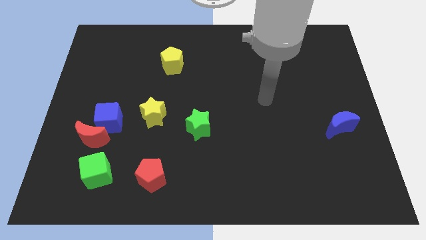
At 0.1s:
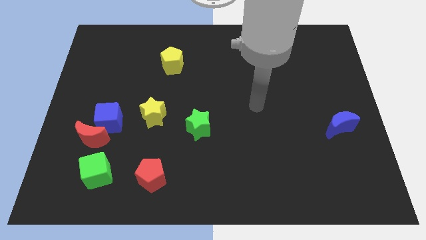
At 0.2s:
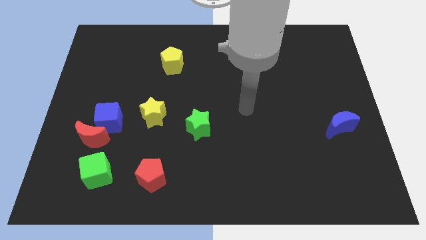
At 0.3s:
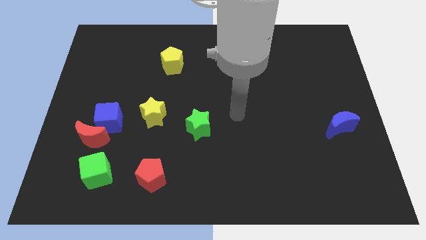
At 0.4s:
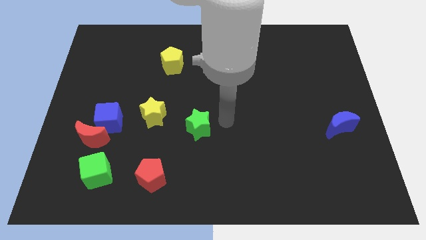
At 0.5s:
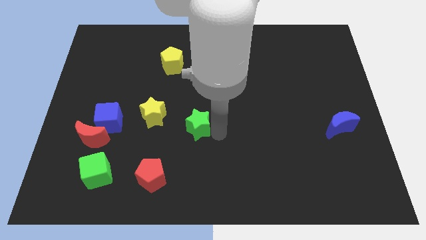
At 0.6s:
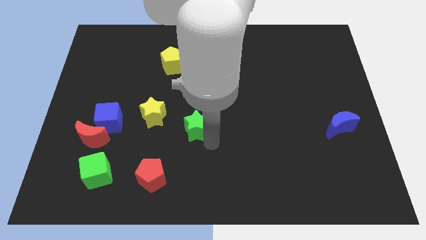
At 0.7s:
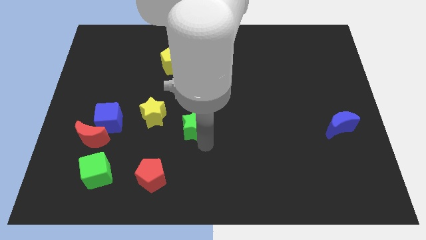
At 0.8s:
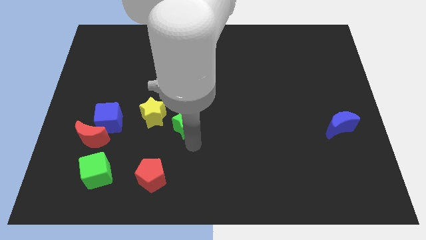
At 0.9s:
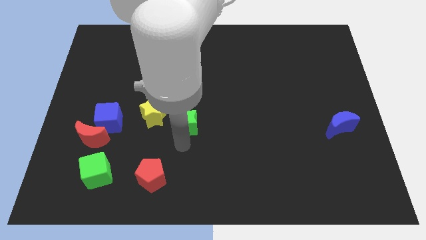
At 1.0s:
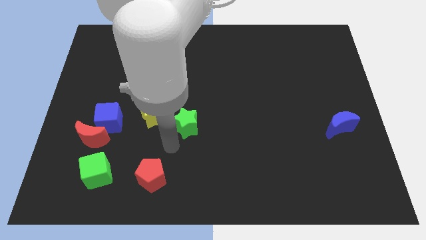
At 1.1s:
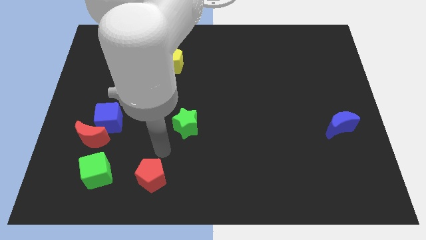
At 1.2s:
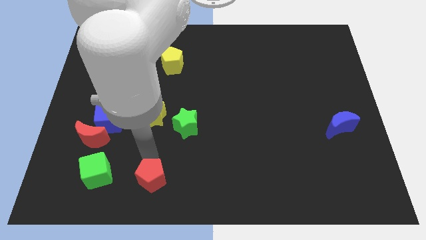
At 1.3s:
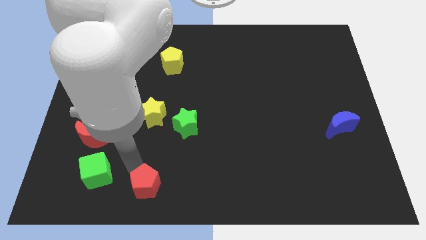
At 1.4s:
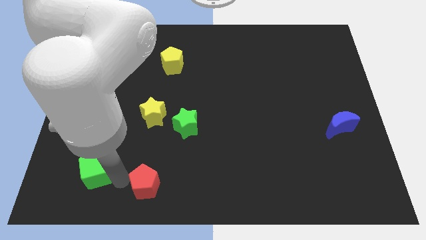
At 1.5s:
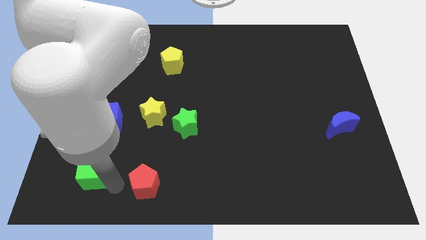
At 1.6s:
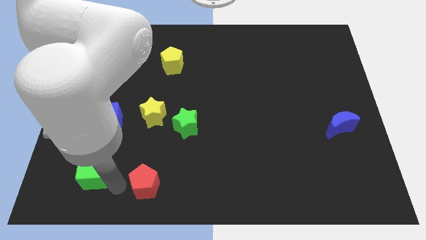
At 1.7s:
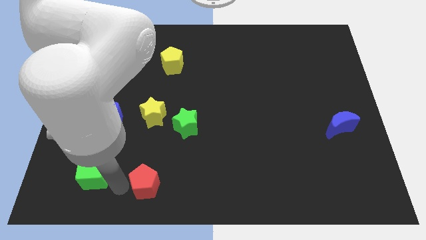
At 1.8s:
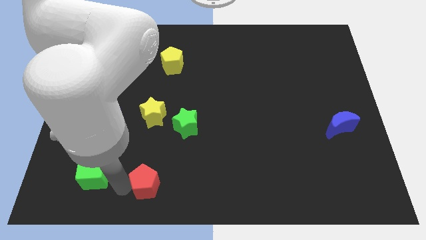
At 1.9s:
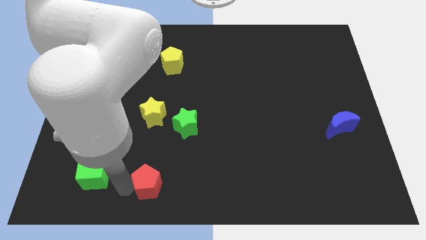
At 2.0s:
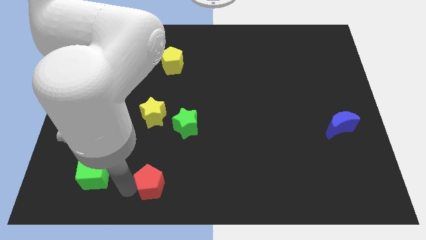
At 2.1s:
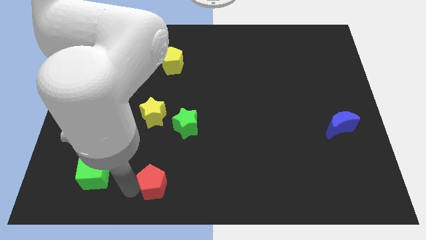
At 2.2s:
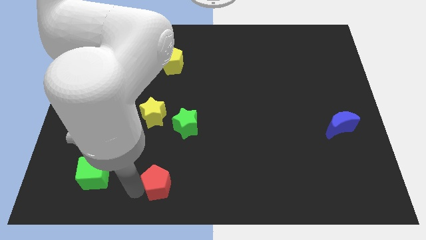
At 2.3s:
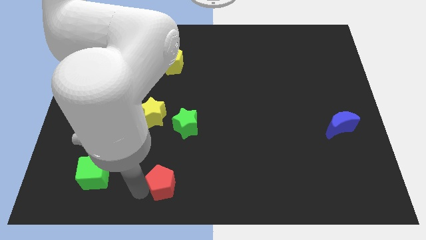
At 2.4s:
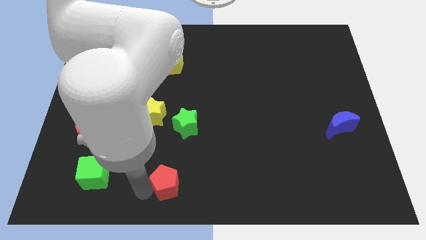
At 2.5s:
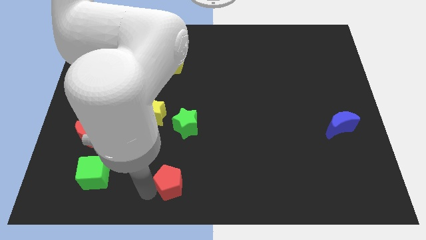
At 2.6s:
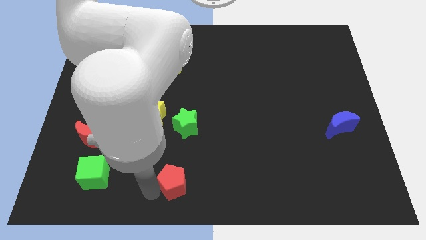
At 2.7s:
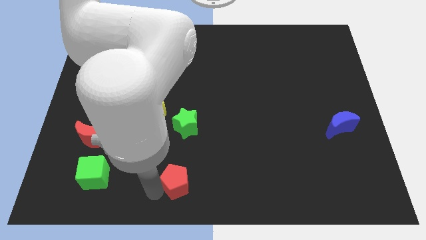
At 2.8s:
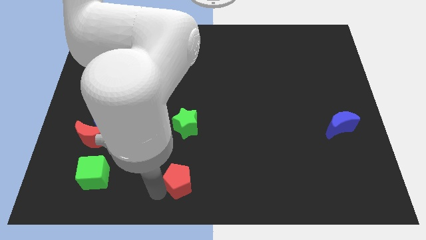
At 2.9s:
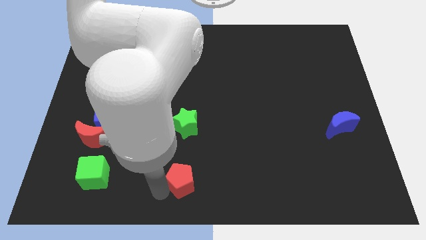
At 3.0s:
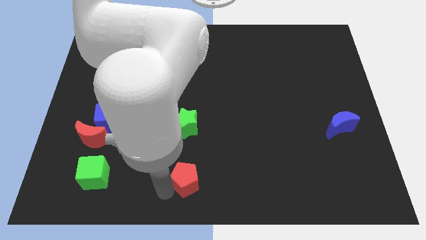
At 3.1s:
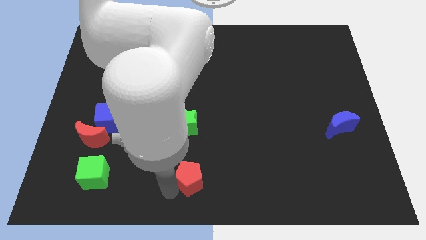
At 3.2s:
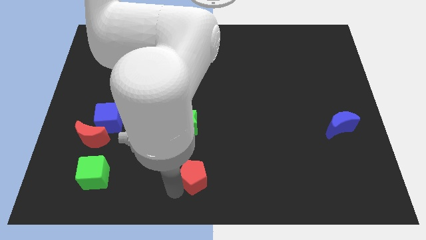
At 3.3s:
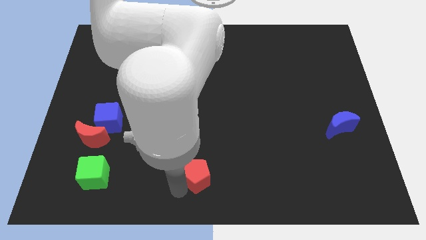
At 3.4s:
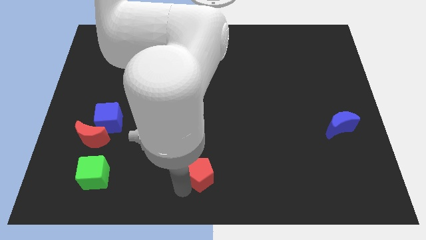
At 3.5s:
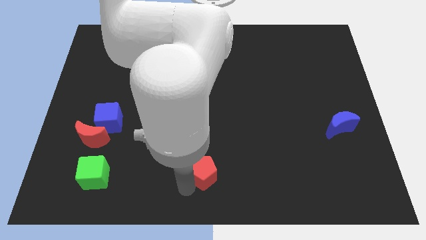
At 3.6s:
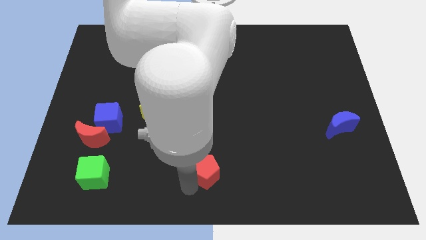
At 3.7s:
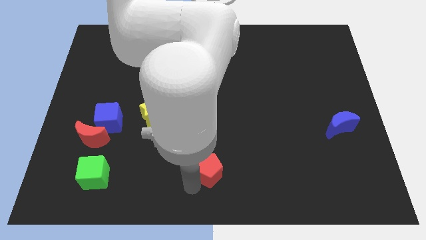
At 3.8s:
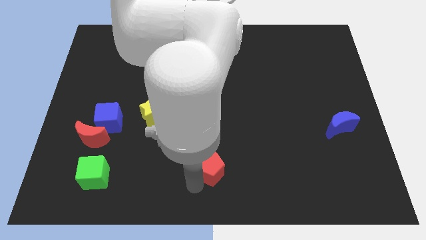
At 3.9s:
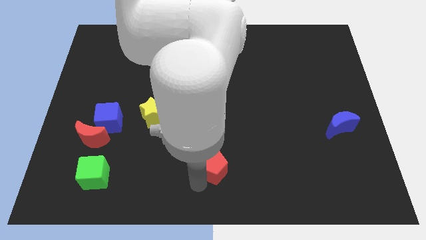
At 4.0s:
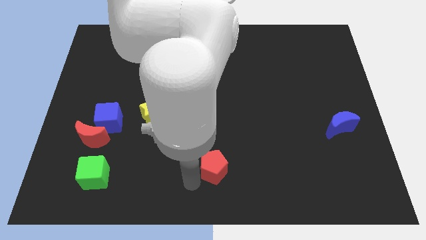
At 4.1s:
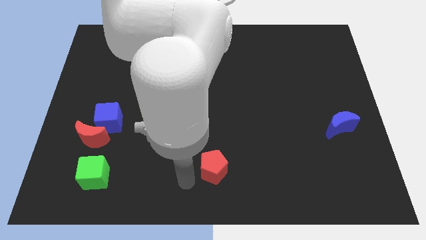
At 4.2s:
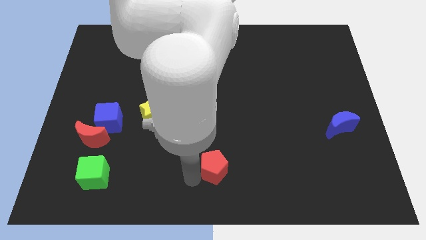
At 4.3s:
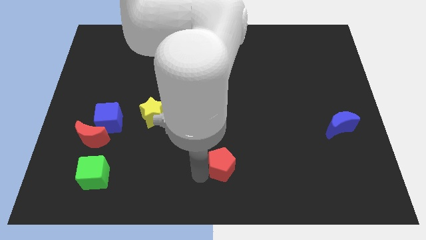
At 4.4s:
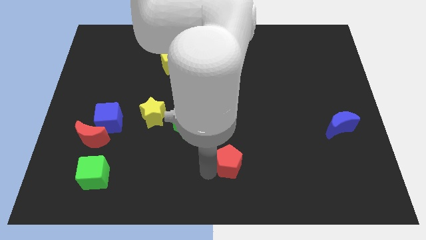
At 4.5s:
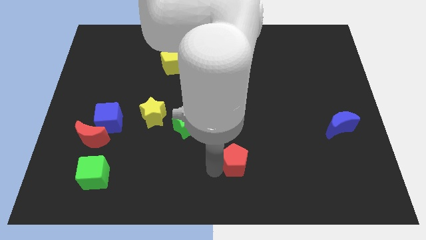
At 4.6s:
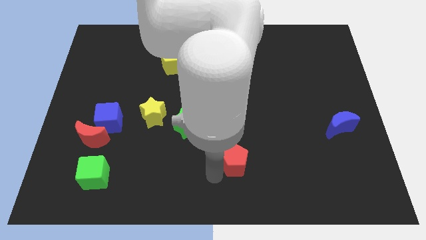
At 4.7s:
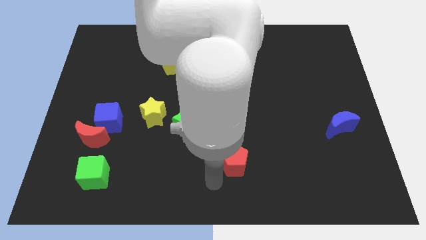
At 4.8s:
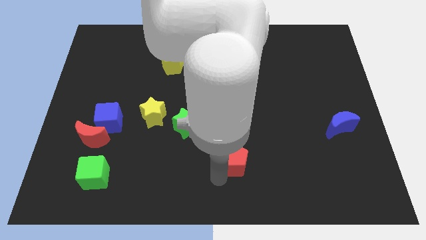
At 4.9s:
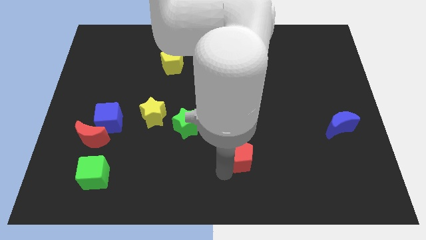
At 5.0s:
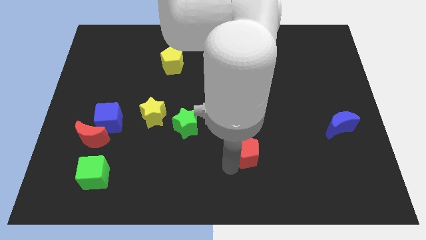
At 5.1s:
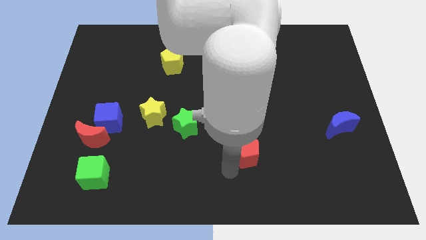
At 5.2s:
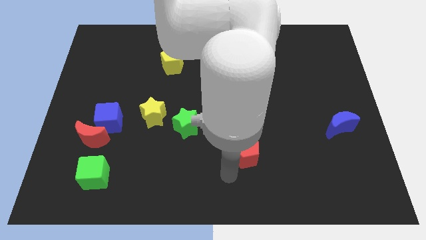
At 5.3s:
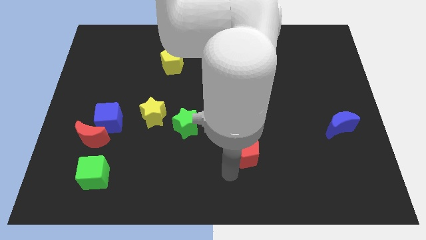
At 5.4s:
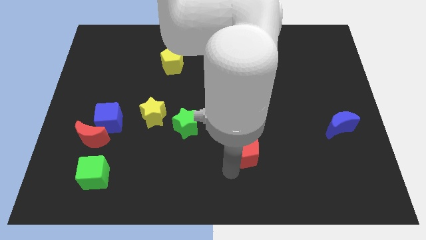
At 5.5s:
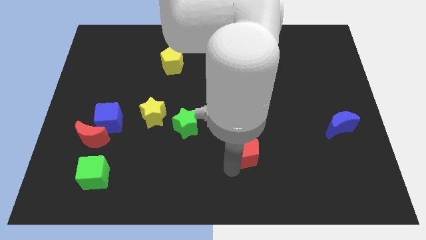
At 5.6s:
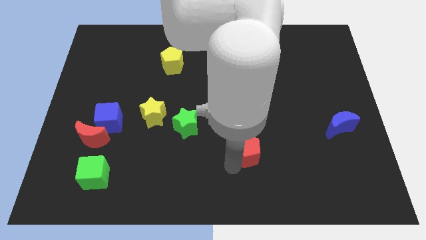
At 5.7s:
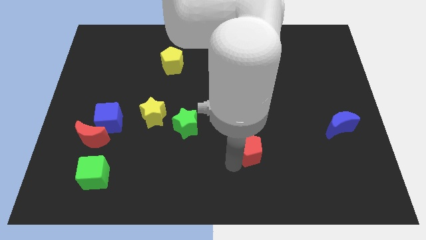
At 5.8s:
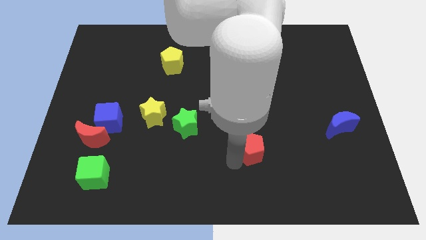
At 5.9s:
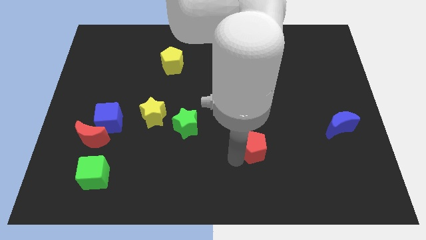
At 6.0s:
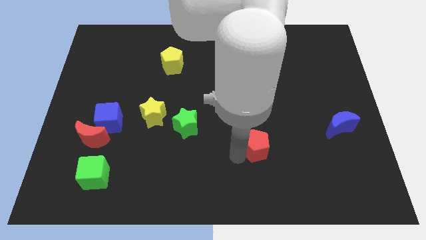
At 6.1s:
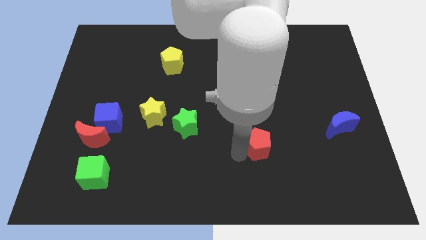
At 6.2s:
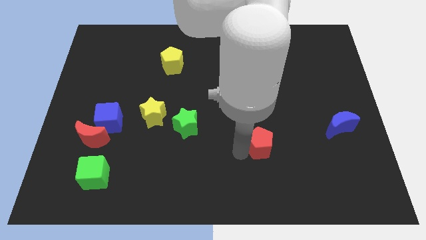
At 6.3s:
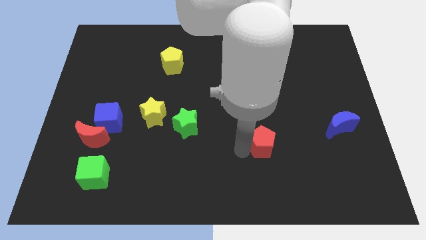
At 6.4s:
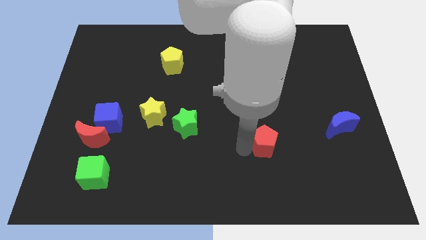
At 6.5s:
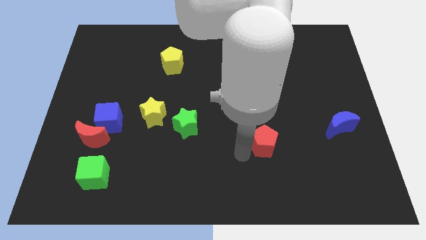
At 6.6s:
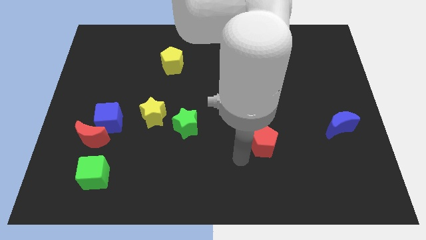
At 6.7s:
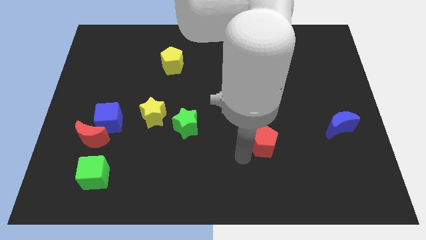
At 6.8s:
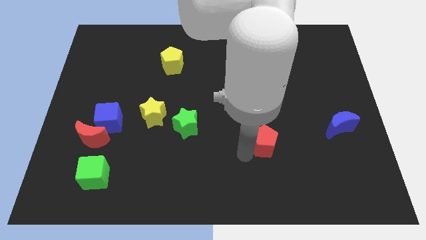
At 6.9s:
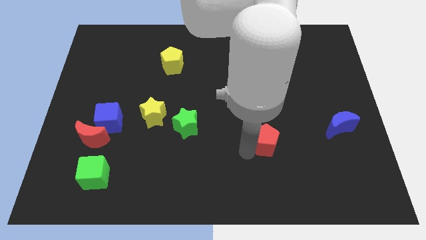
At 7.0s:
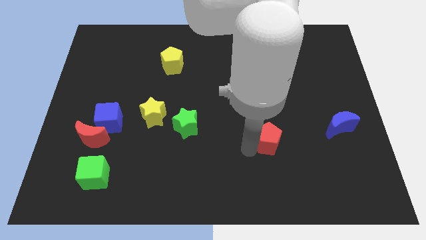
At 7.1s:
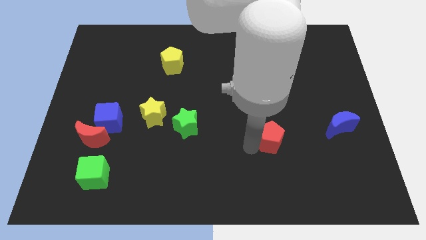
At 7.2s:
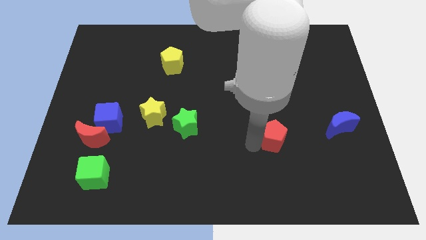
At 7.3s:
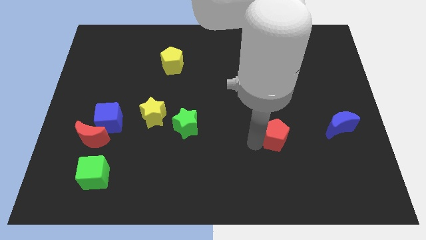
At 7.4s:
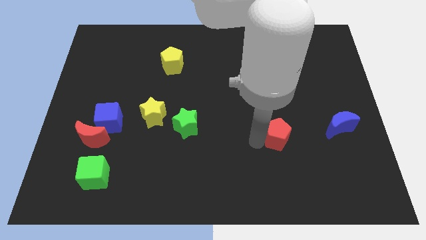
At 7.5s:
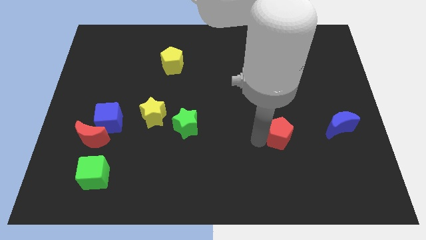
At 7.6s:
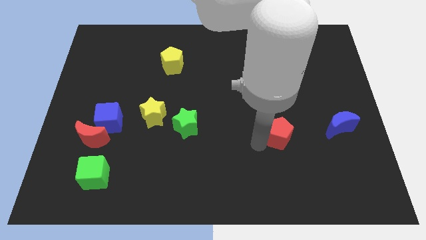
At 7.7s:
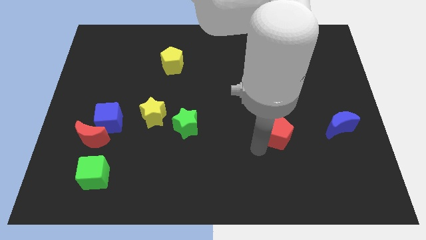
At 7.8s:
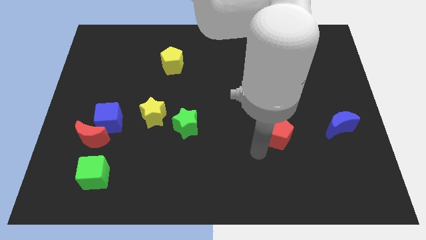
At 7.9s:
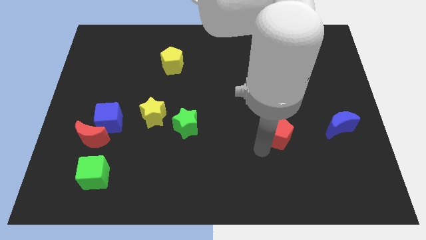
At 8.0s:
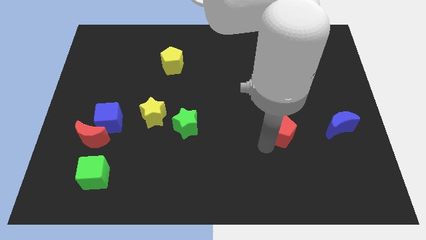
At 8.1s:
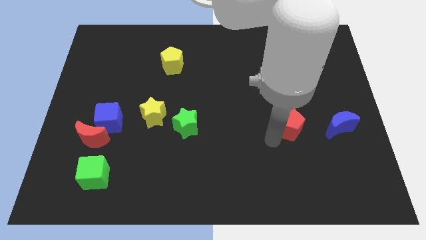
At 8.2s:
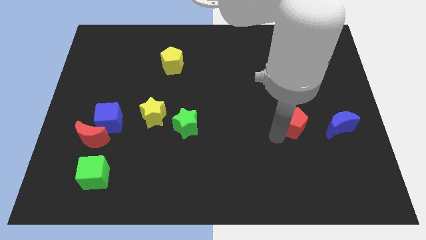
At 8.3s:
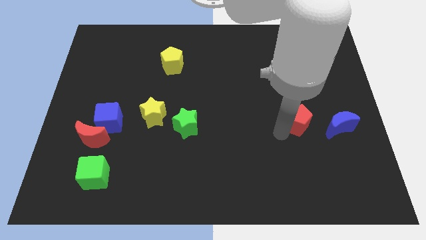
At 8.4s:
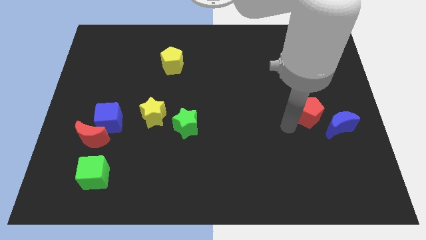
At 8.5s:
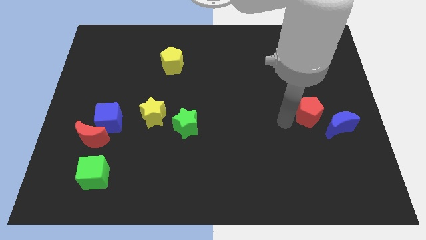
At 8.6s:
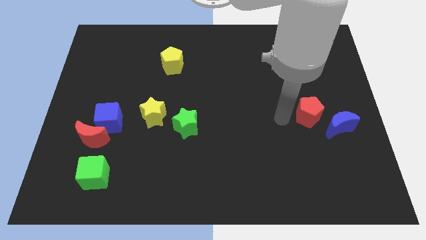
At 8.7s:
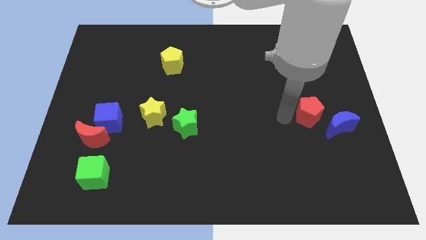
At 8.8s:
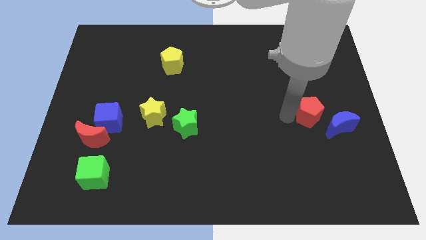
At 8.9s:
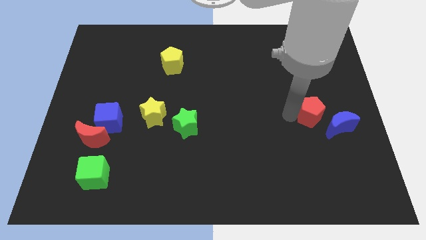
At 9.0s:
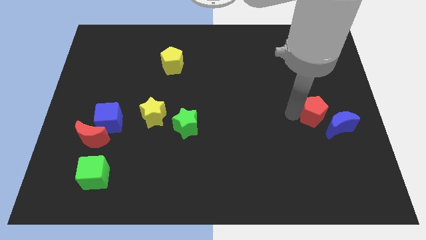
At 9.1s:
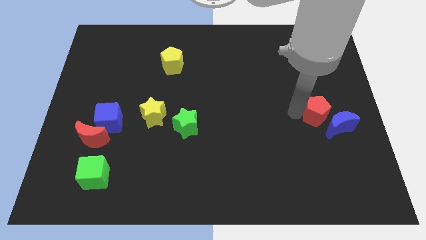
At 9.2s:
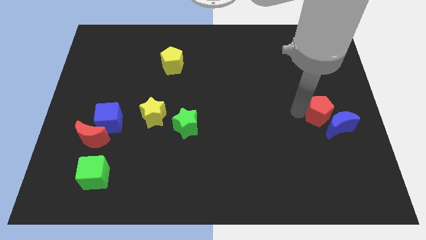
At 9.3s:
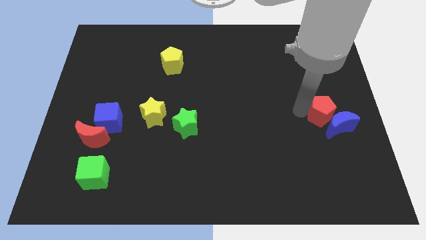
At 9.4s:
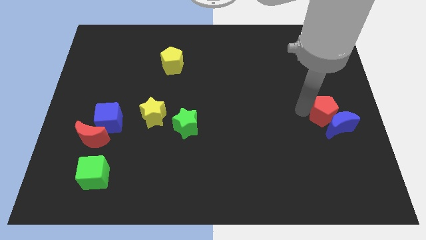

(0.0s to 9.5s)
push the red pentagon to the right side of the board
